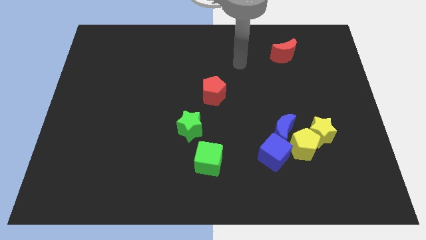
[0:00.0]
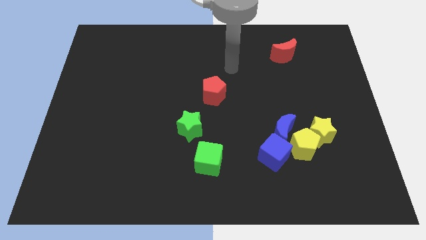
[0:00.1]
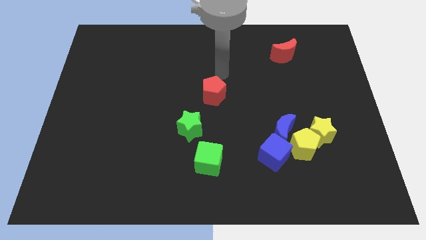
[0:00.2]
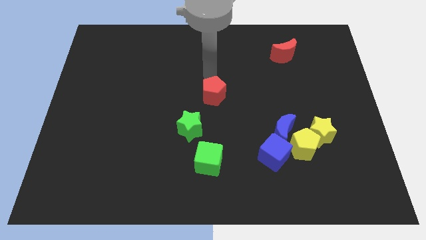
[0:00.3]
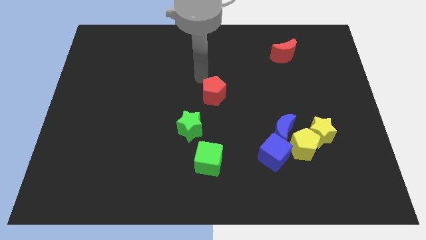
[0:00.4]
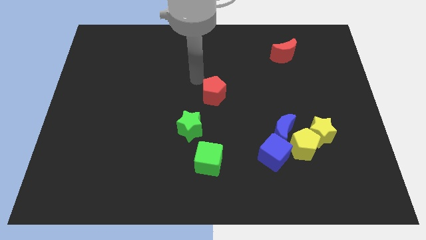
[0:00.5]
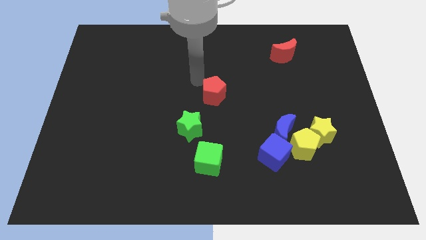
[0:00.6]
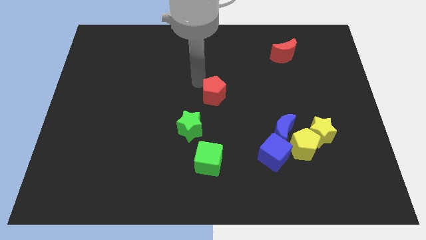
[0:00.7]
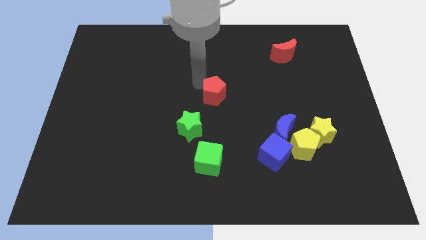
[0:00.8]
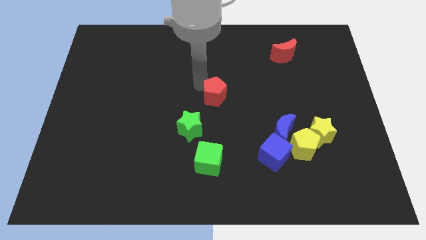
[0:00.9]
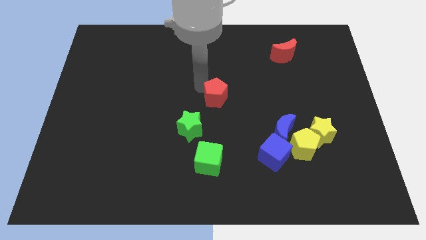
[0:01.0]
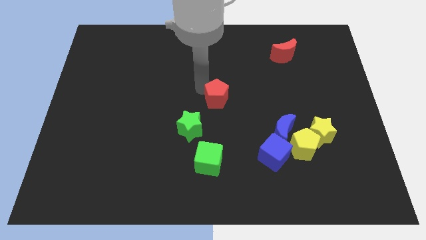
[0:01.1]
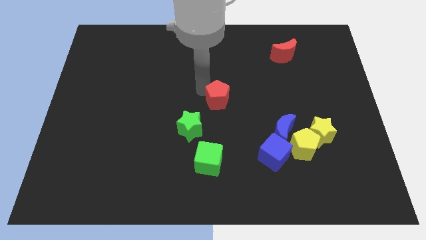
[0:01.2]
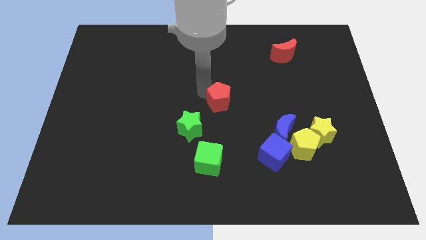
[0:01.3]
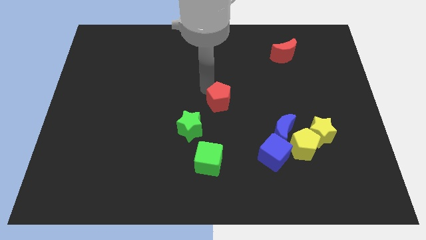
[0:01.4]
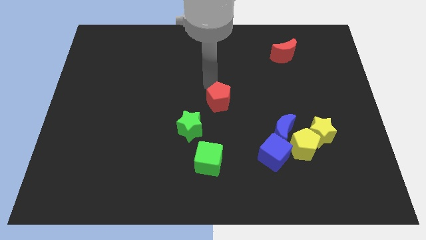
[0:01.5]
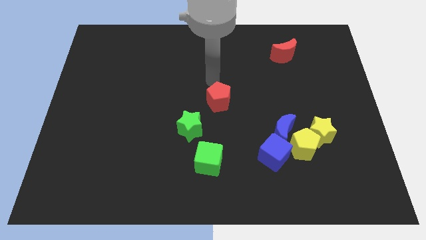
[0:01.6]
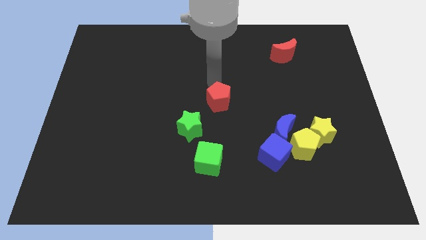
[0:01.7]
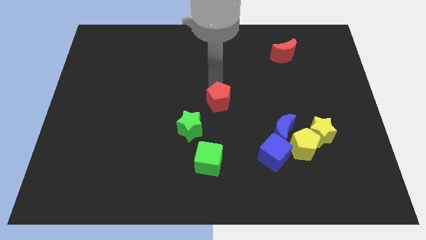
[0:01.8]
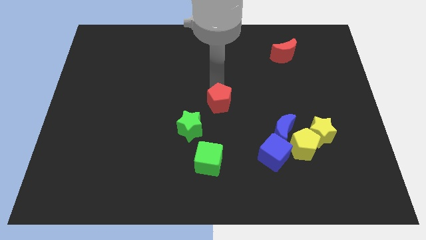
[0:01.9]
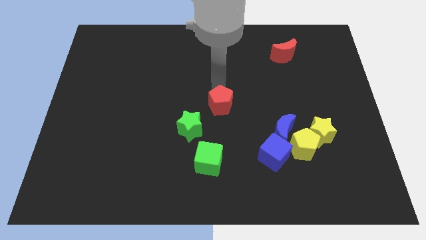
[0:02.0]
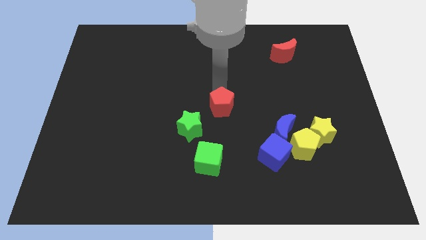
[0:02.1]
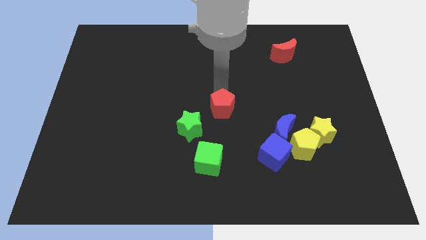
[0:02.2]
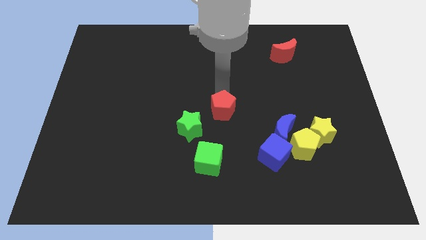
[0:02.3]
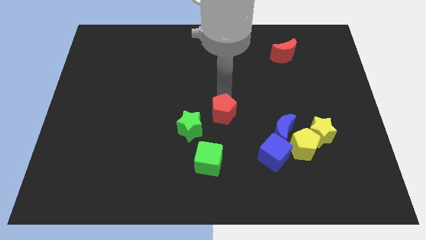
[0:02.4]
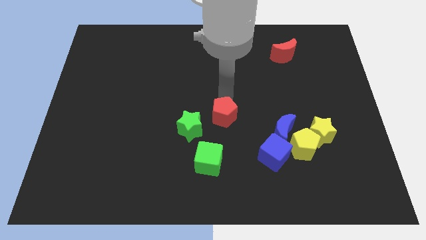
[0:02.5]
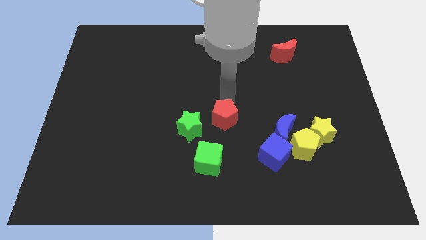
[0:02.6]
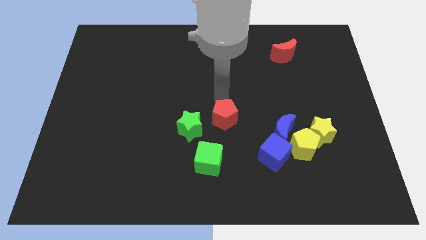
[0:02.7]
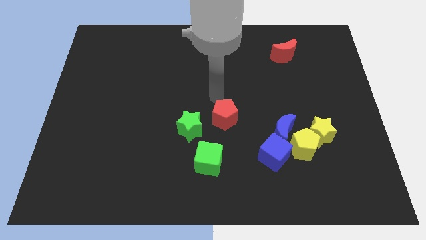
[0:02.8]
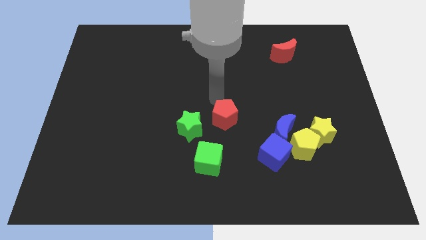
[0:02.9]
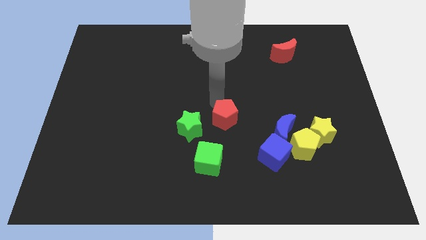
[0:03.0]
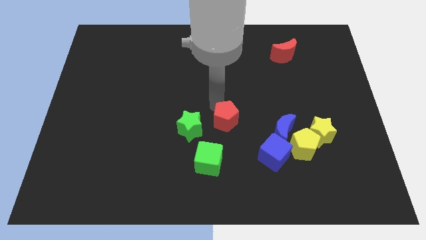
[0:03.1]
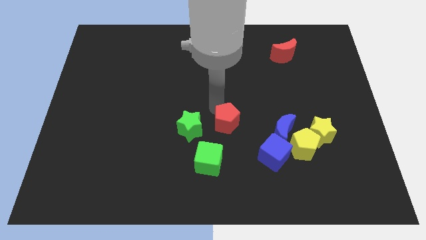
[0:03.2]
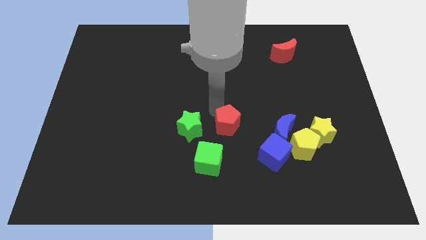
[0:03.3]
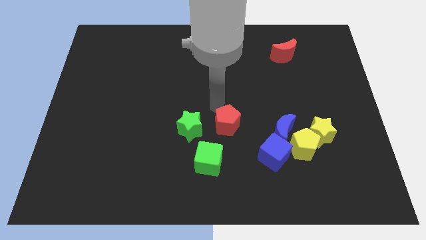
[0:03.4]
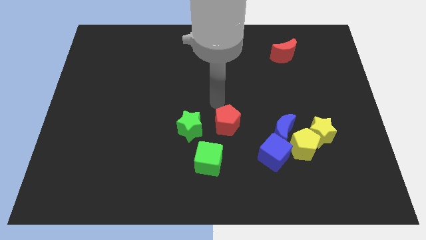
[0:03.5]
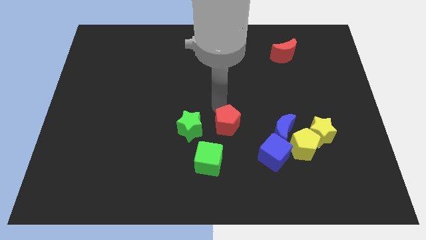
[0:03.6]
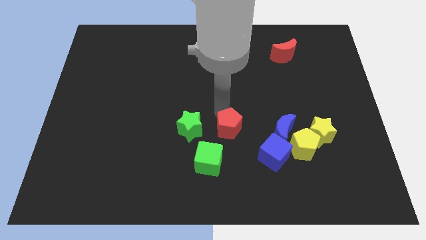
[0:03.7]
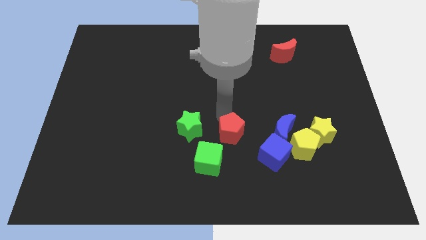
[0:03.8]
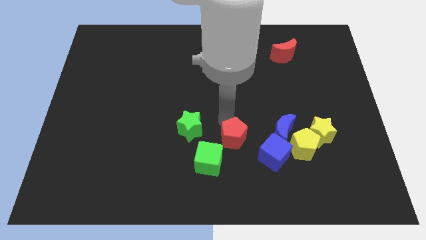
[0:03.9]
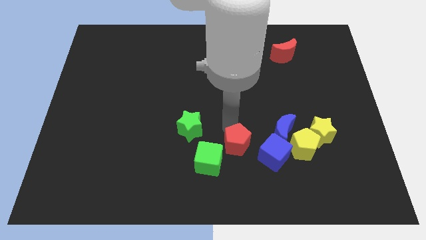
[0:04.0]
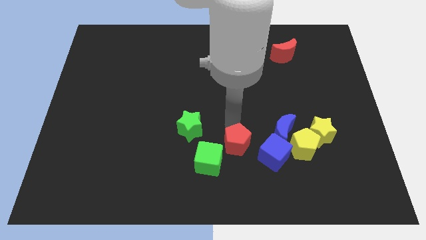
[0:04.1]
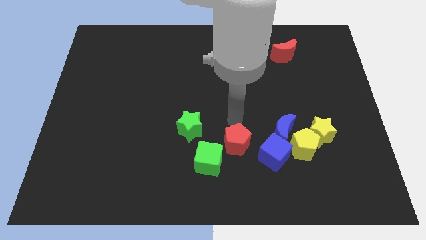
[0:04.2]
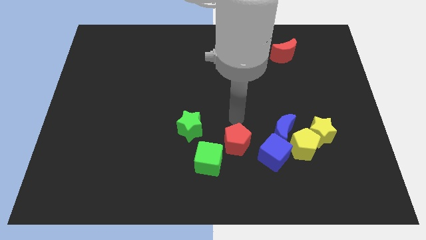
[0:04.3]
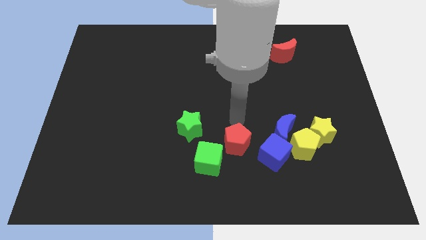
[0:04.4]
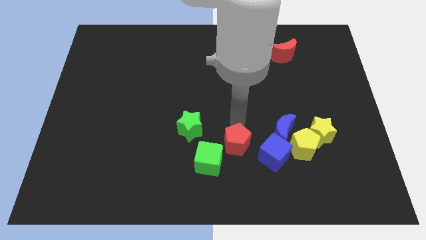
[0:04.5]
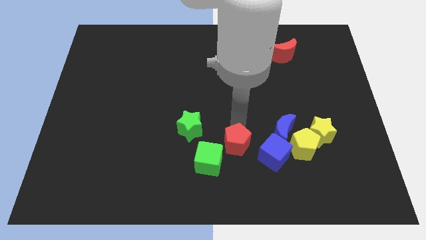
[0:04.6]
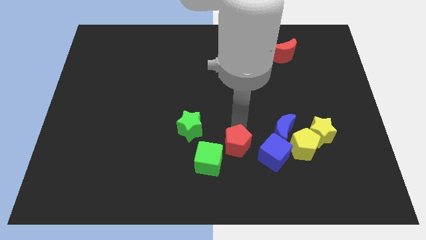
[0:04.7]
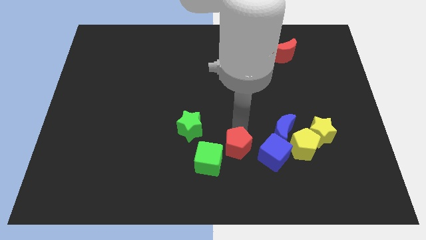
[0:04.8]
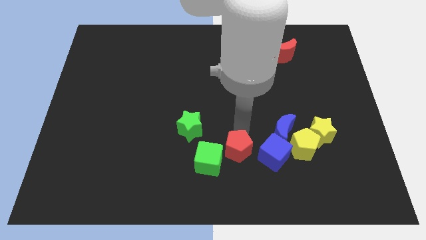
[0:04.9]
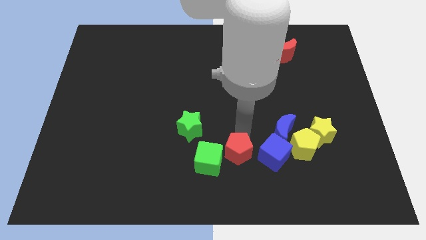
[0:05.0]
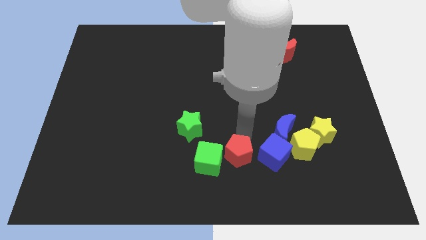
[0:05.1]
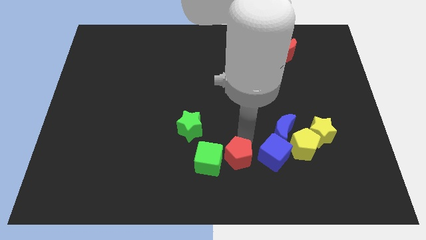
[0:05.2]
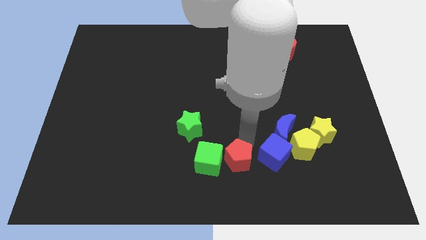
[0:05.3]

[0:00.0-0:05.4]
slide the red pentagon to the bottom
